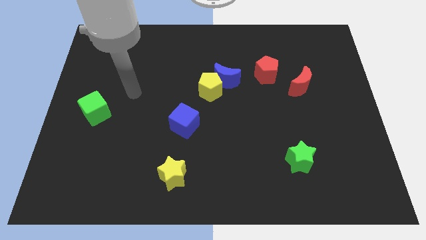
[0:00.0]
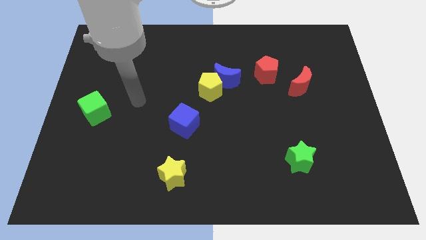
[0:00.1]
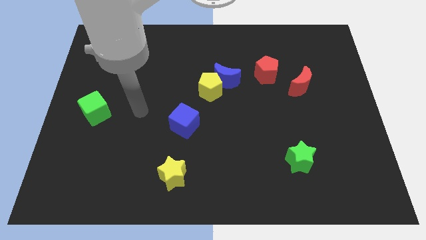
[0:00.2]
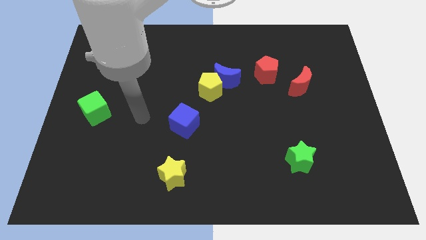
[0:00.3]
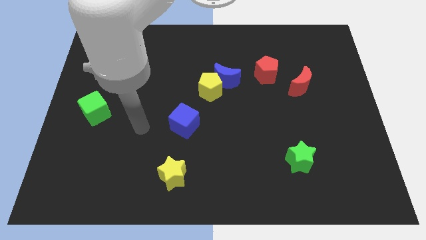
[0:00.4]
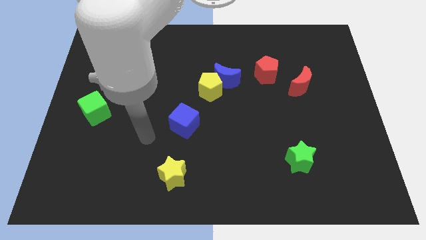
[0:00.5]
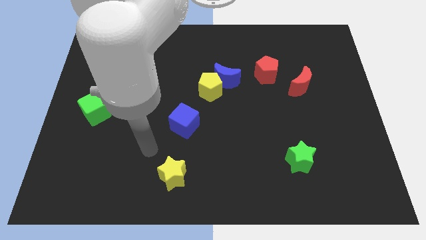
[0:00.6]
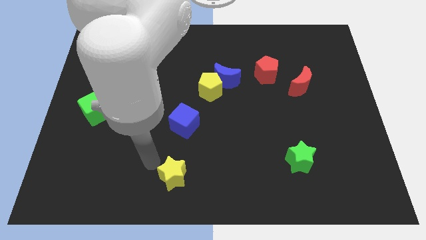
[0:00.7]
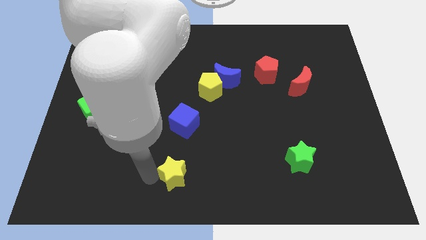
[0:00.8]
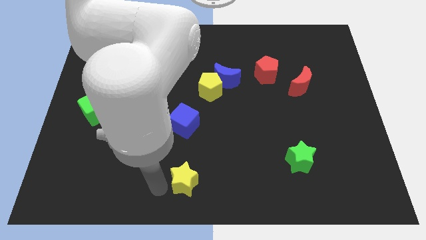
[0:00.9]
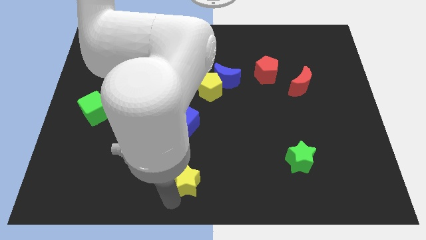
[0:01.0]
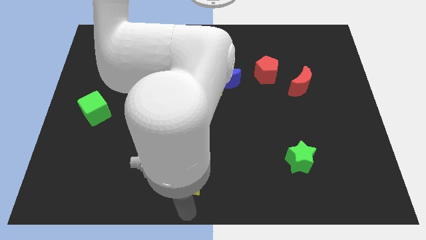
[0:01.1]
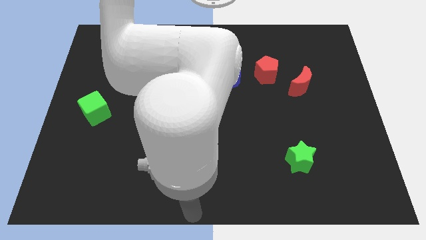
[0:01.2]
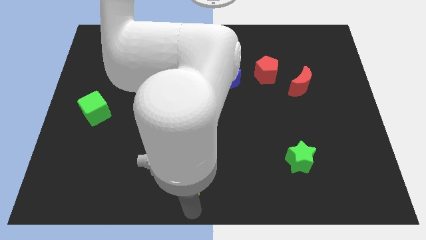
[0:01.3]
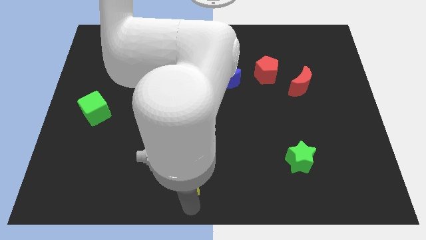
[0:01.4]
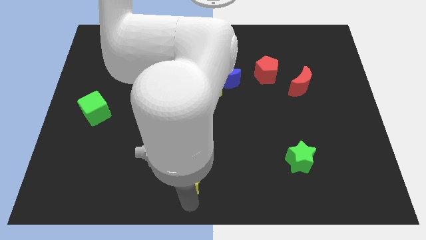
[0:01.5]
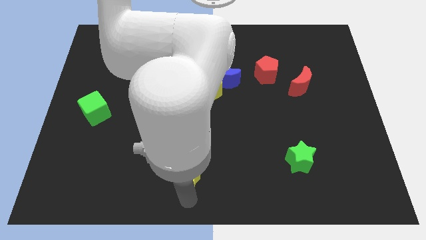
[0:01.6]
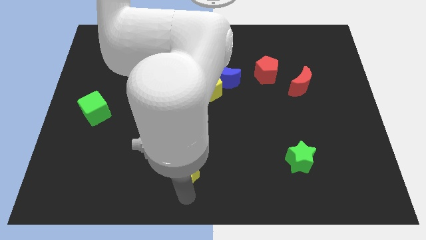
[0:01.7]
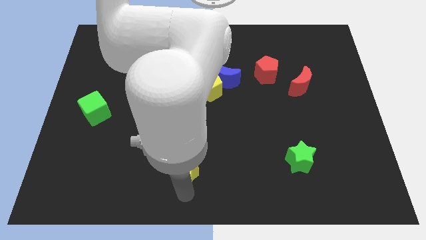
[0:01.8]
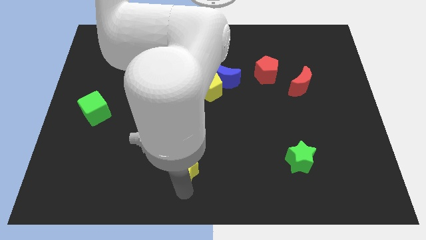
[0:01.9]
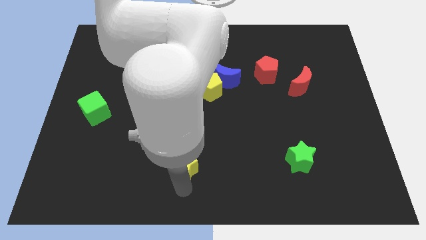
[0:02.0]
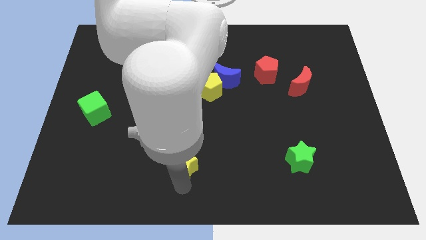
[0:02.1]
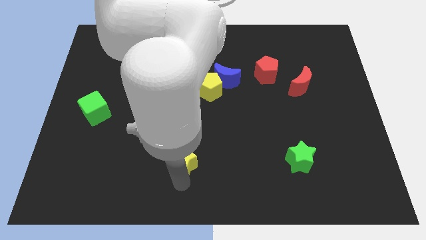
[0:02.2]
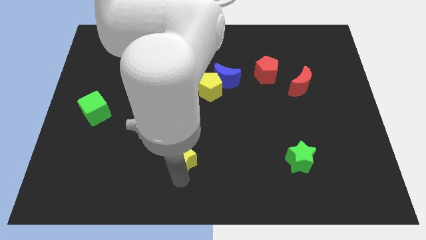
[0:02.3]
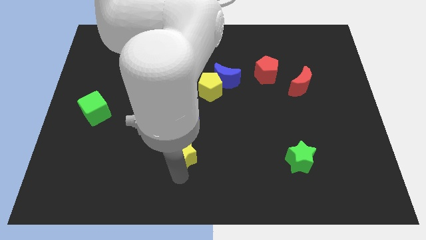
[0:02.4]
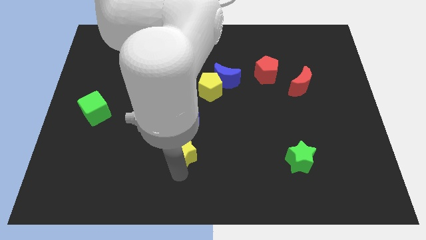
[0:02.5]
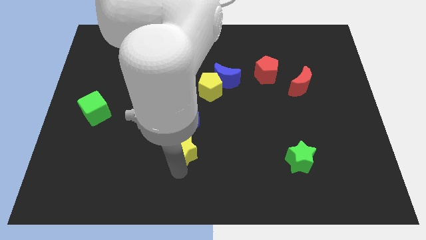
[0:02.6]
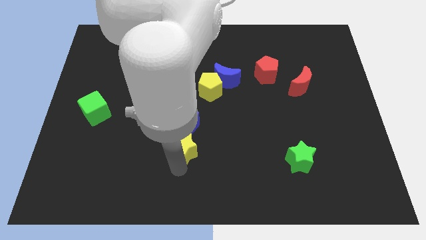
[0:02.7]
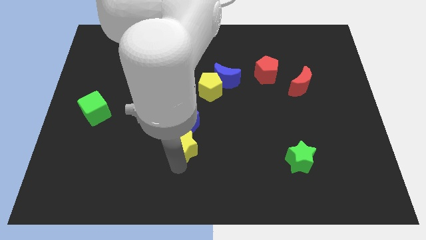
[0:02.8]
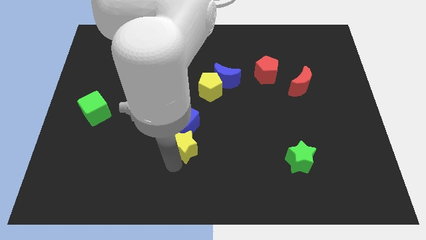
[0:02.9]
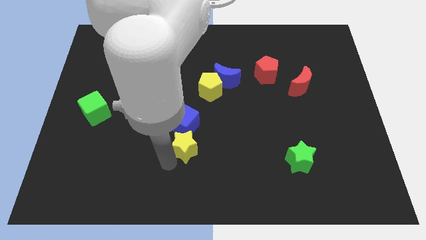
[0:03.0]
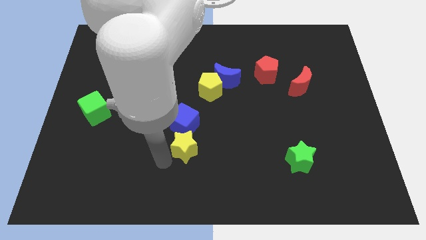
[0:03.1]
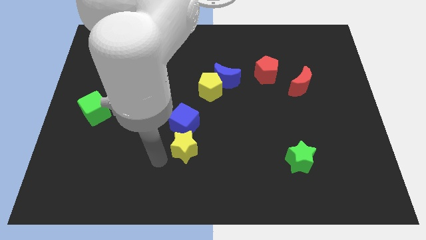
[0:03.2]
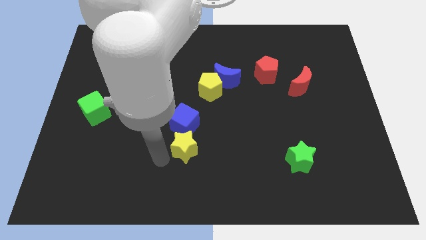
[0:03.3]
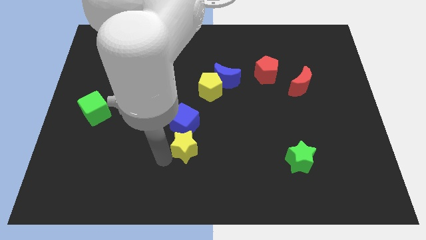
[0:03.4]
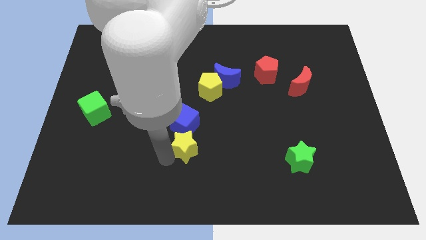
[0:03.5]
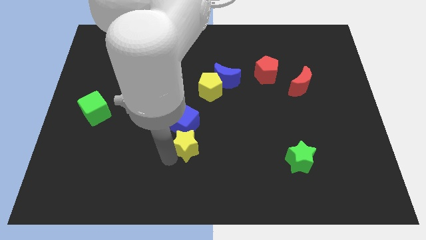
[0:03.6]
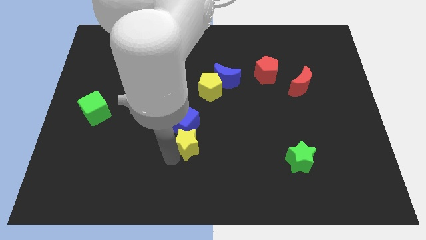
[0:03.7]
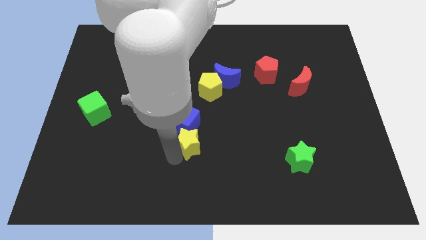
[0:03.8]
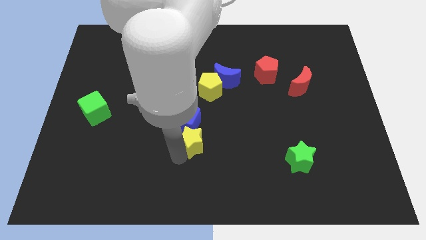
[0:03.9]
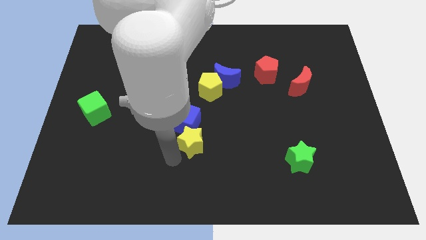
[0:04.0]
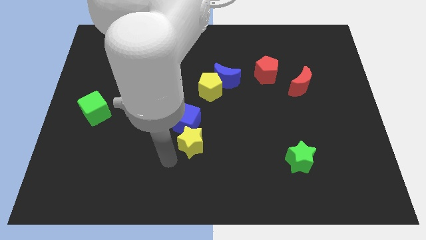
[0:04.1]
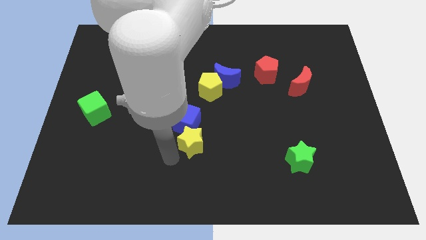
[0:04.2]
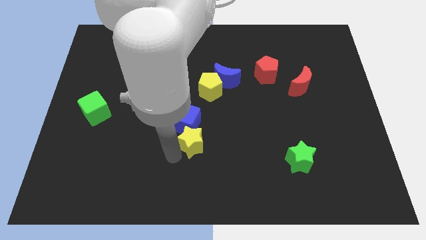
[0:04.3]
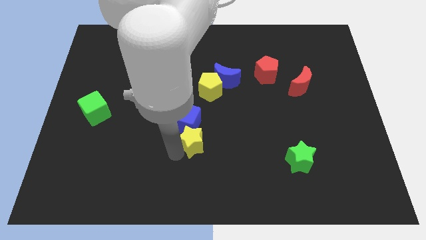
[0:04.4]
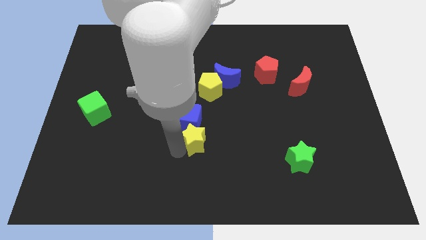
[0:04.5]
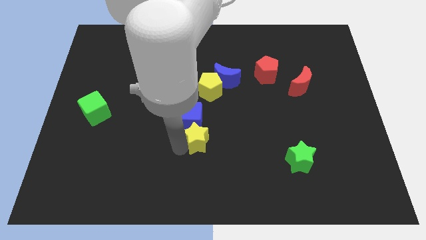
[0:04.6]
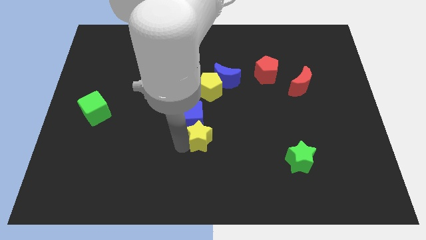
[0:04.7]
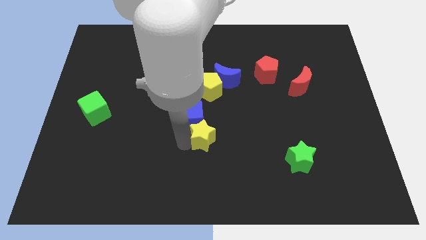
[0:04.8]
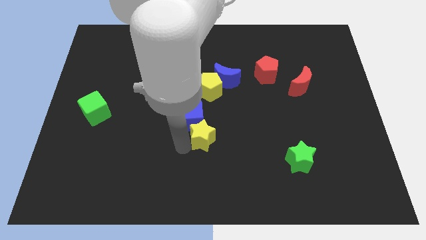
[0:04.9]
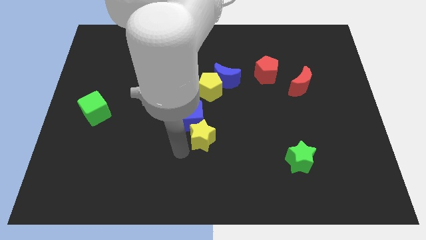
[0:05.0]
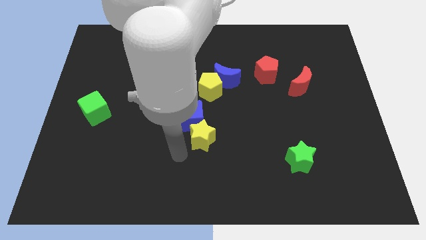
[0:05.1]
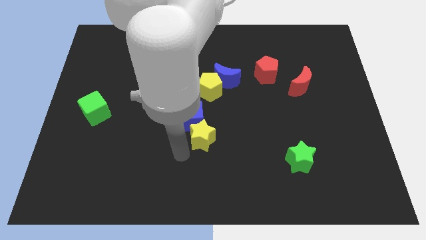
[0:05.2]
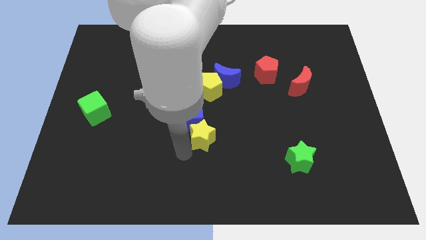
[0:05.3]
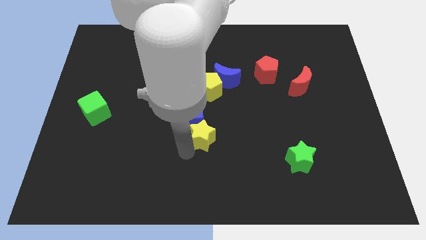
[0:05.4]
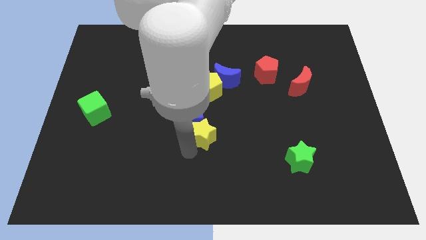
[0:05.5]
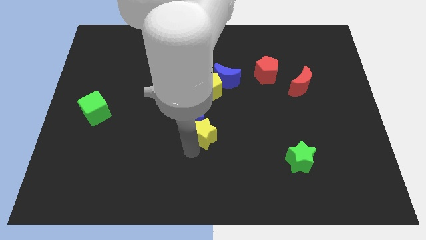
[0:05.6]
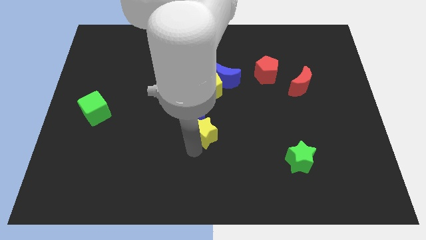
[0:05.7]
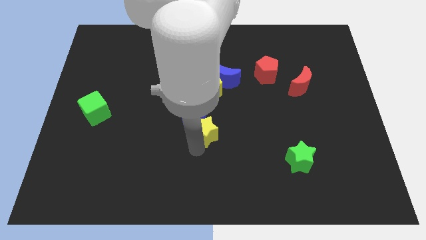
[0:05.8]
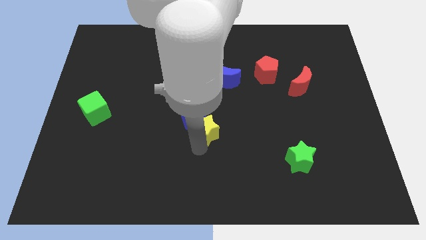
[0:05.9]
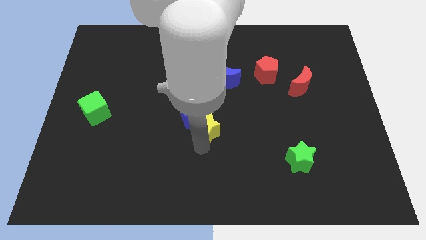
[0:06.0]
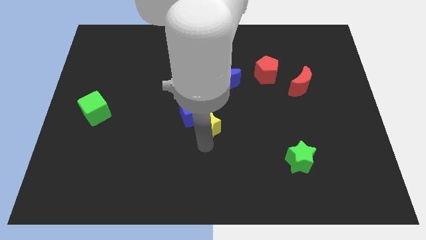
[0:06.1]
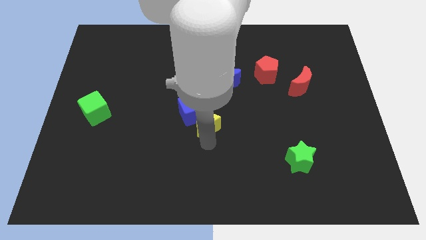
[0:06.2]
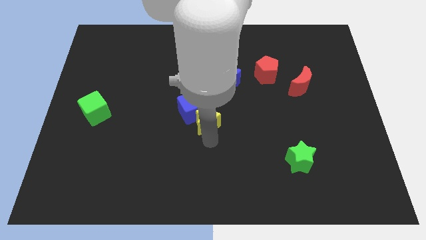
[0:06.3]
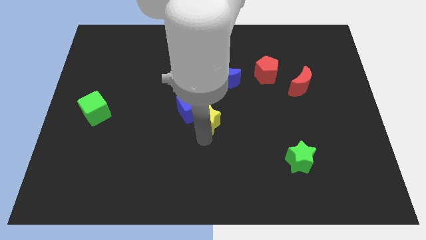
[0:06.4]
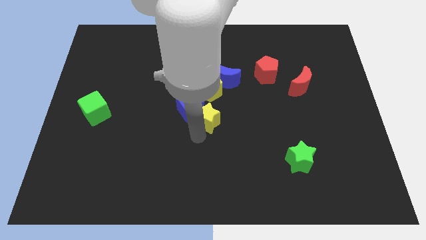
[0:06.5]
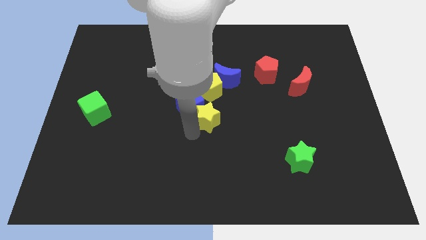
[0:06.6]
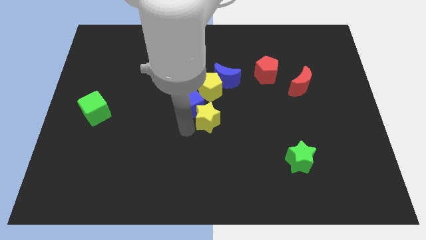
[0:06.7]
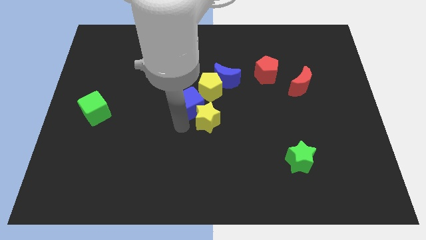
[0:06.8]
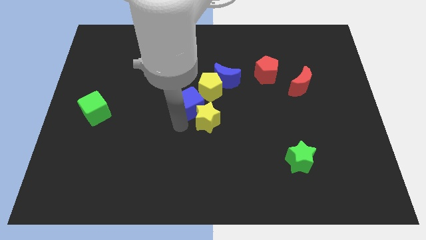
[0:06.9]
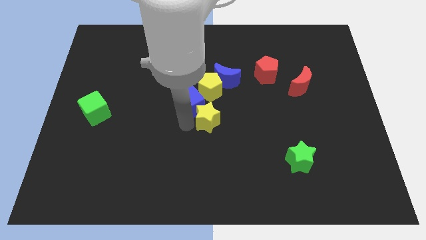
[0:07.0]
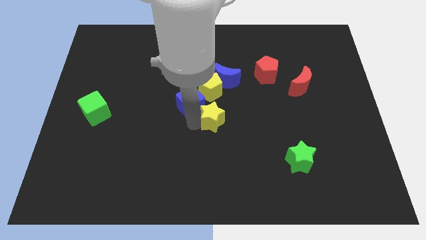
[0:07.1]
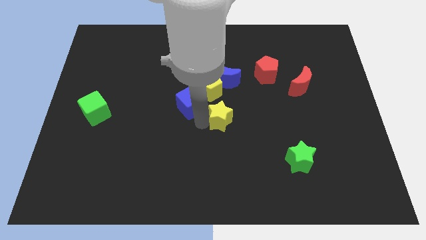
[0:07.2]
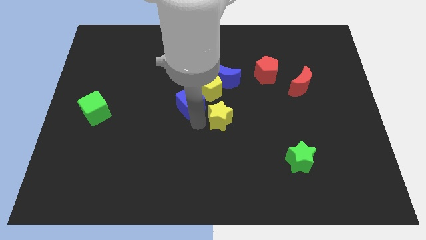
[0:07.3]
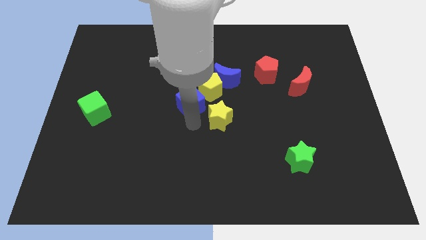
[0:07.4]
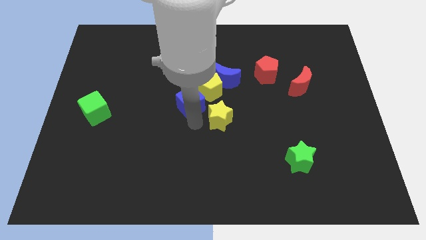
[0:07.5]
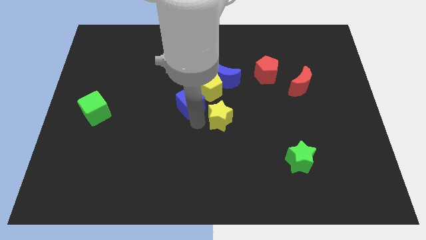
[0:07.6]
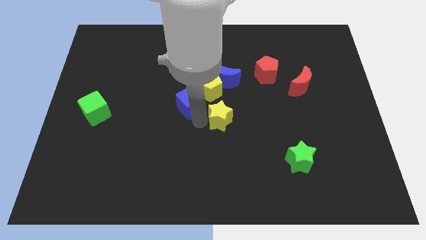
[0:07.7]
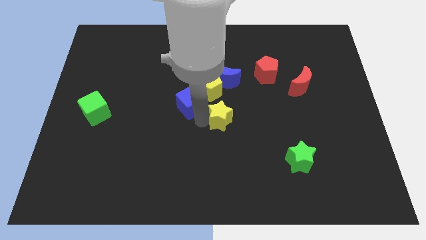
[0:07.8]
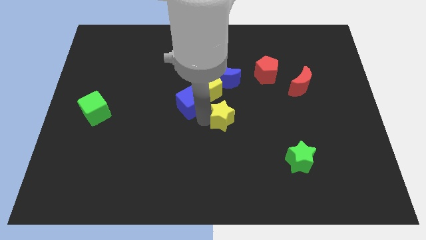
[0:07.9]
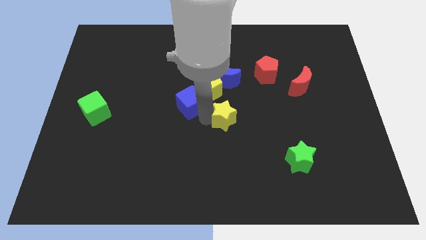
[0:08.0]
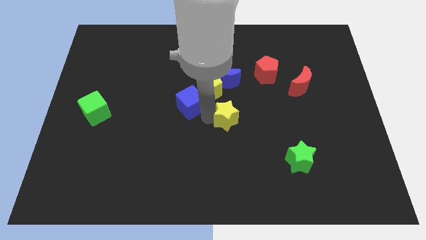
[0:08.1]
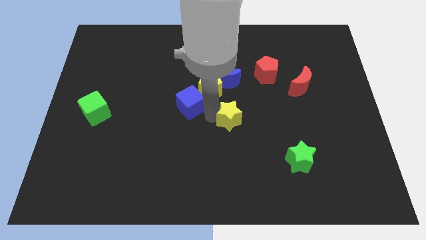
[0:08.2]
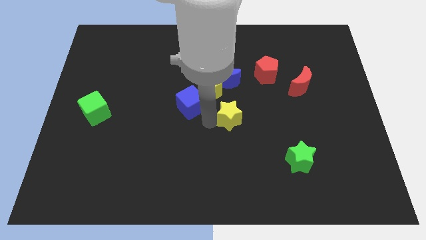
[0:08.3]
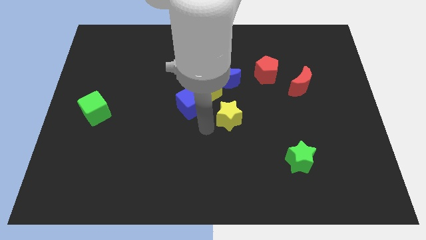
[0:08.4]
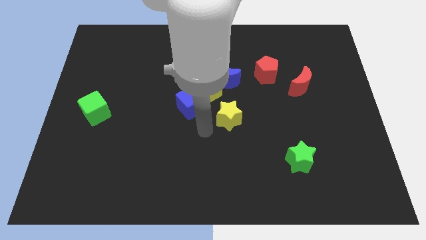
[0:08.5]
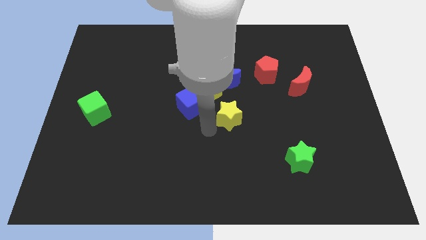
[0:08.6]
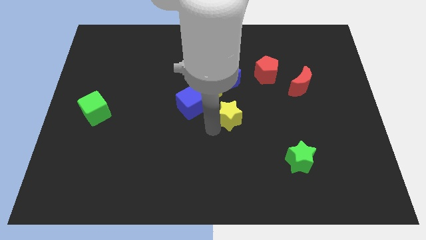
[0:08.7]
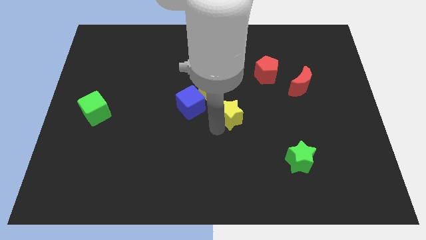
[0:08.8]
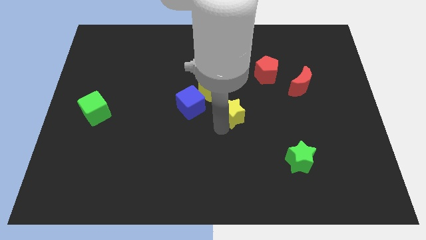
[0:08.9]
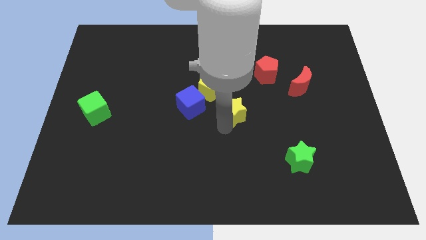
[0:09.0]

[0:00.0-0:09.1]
move the yellow star upwards and to the right diagonally
